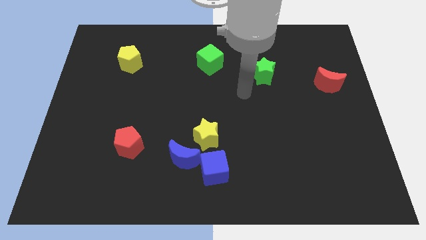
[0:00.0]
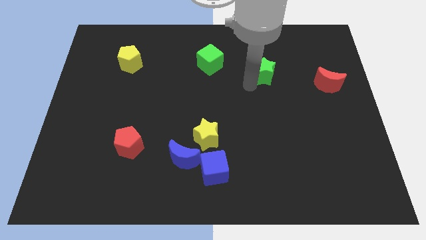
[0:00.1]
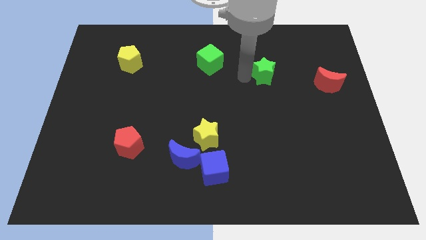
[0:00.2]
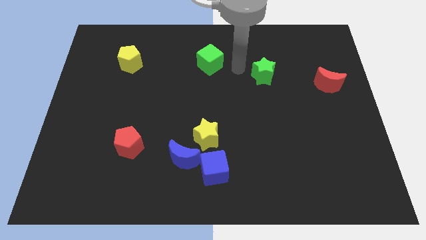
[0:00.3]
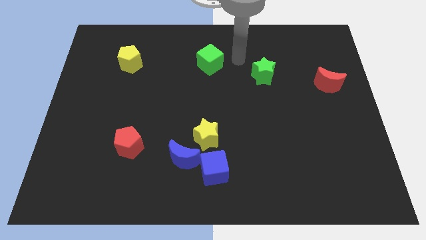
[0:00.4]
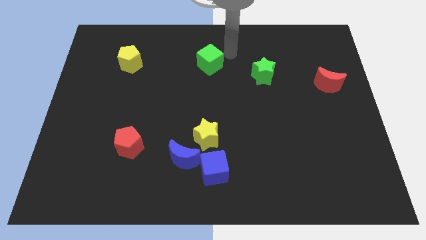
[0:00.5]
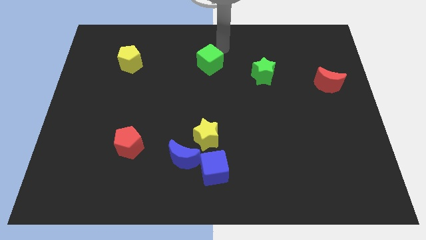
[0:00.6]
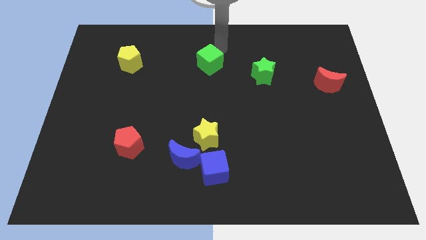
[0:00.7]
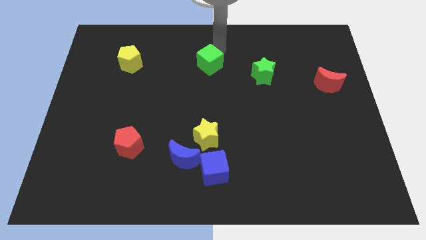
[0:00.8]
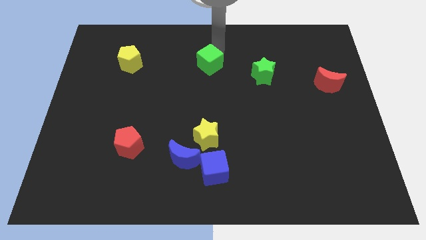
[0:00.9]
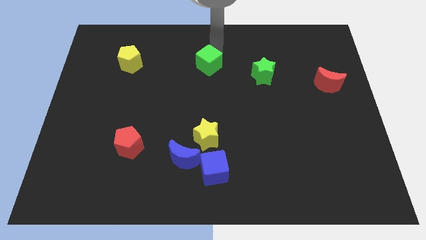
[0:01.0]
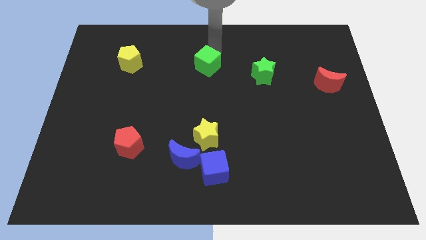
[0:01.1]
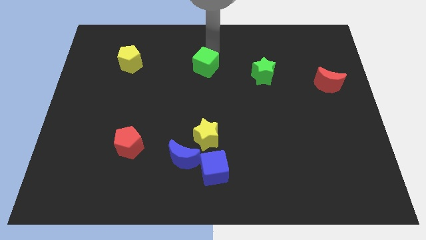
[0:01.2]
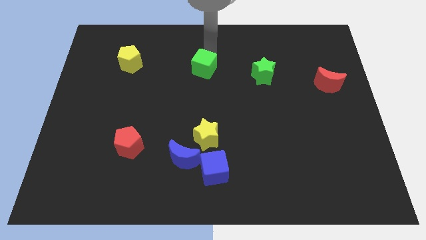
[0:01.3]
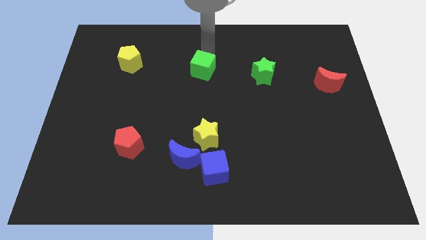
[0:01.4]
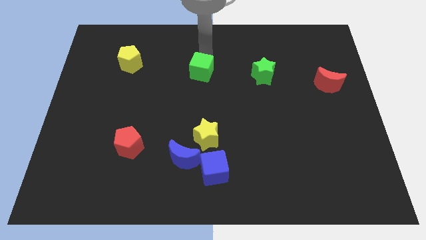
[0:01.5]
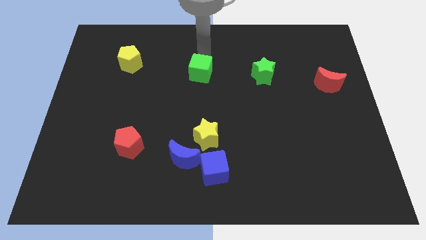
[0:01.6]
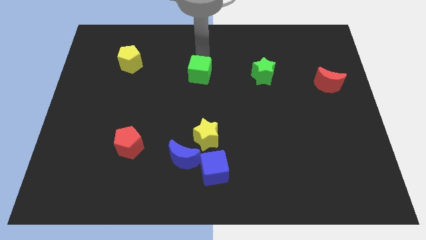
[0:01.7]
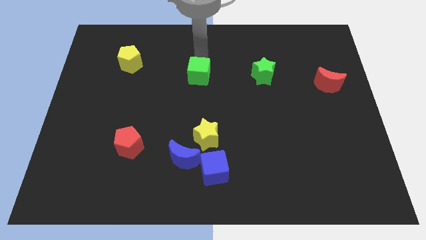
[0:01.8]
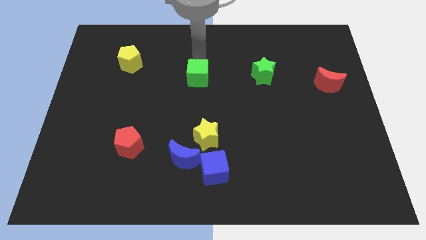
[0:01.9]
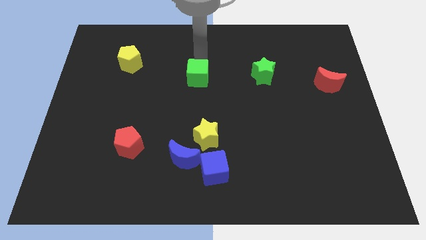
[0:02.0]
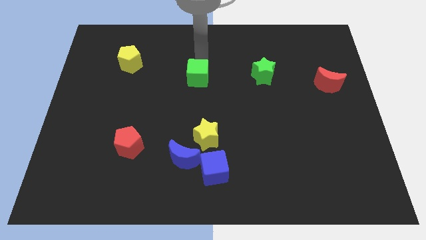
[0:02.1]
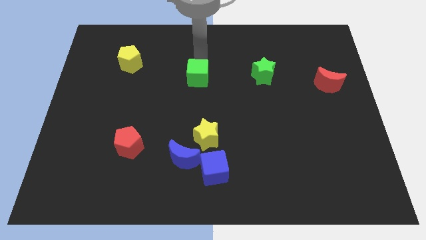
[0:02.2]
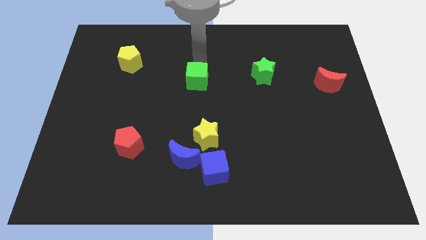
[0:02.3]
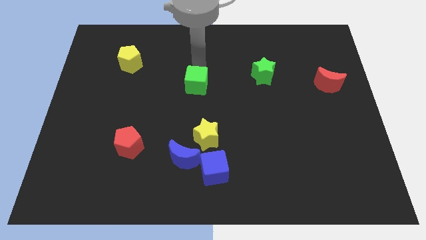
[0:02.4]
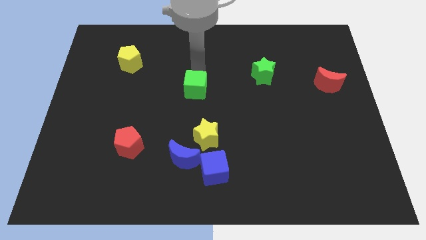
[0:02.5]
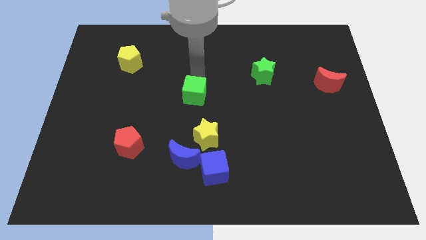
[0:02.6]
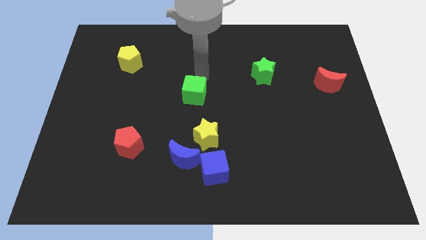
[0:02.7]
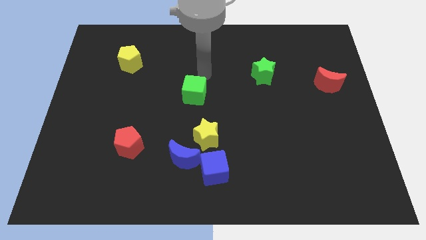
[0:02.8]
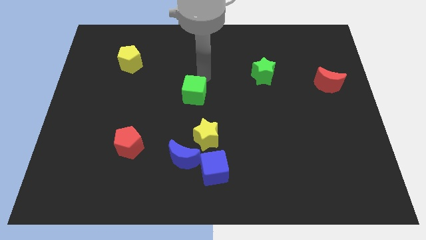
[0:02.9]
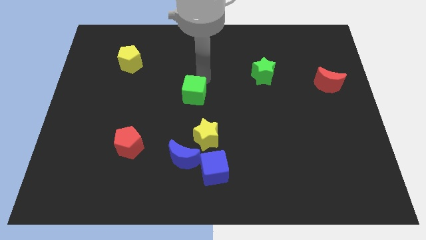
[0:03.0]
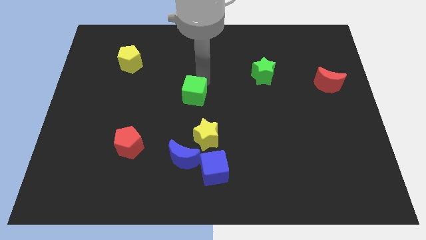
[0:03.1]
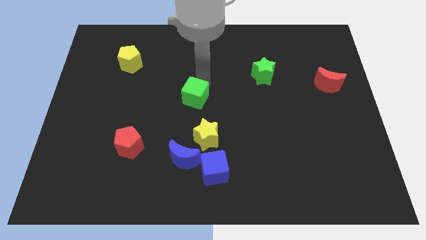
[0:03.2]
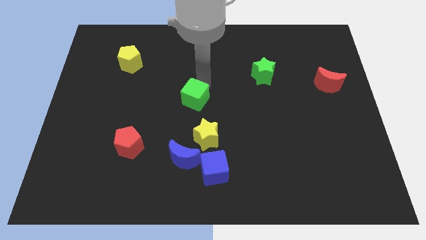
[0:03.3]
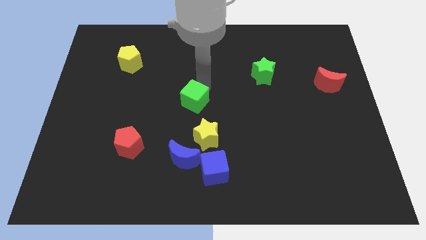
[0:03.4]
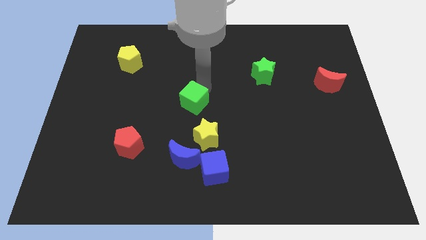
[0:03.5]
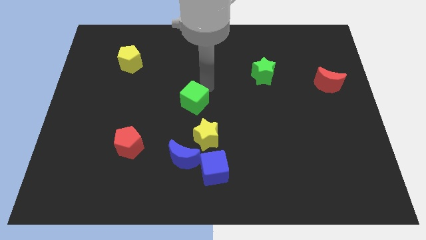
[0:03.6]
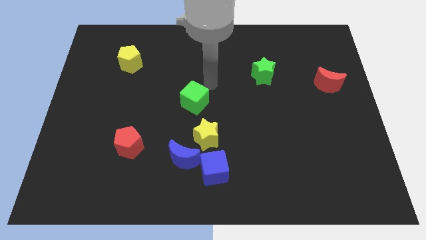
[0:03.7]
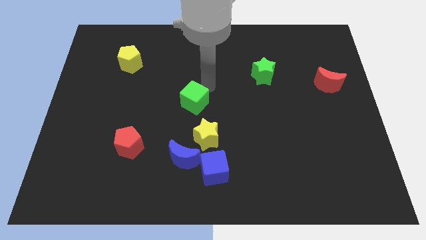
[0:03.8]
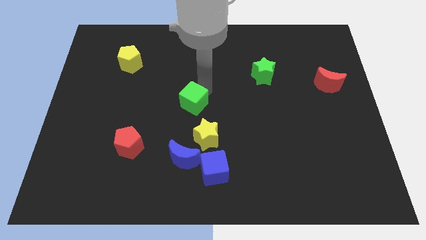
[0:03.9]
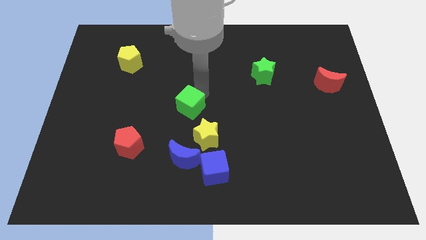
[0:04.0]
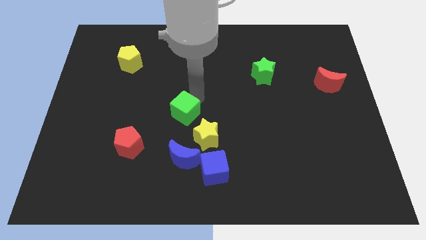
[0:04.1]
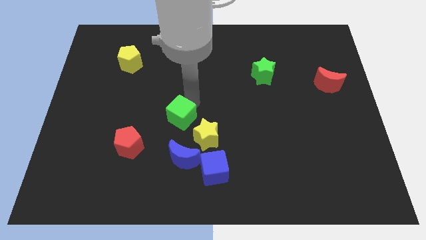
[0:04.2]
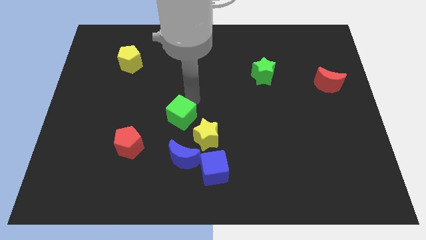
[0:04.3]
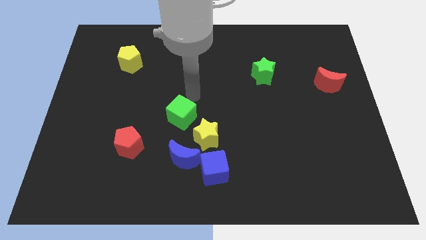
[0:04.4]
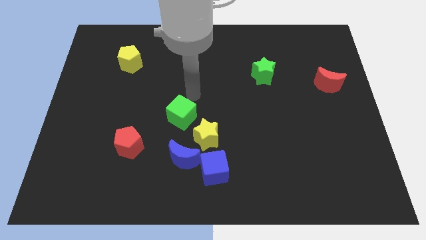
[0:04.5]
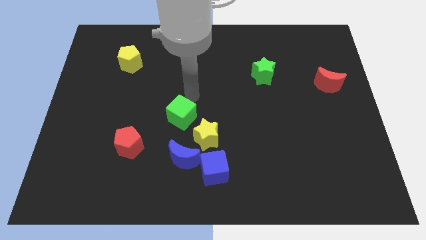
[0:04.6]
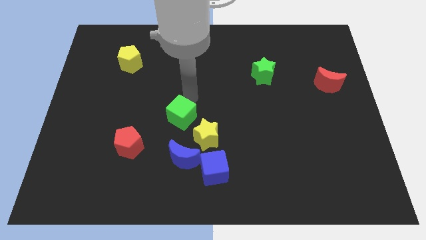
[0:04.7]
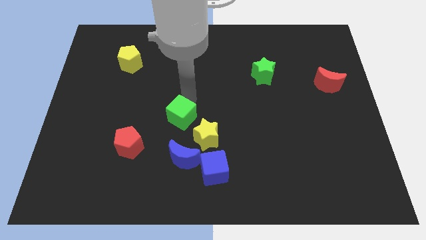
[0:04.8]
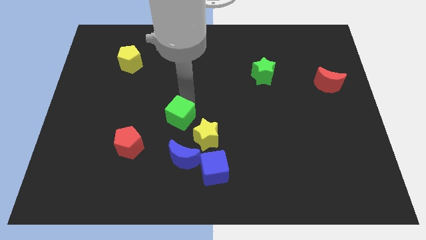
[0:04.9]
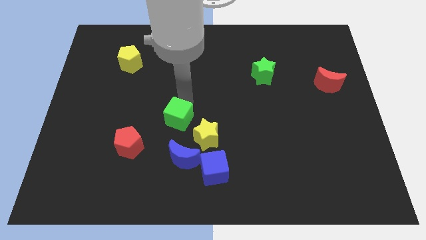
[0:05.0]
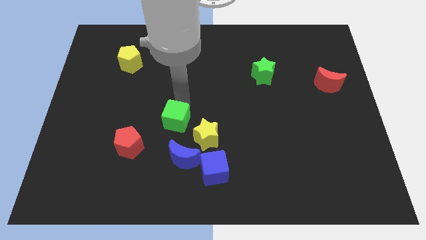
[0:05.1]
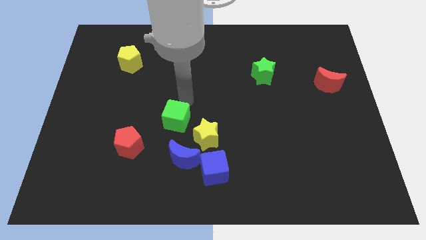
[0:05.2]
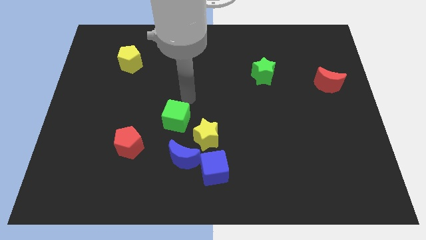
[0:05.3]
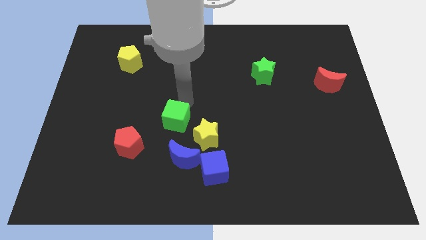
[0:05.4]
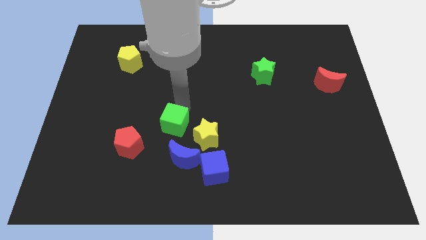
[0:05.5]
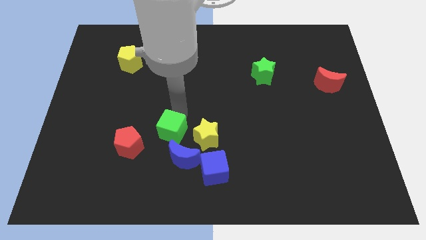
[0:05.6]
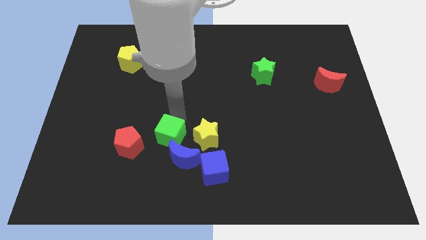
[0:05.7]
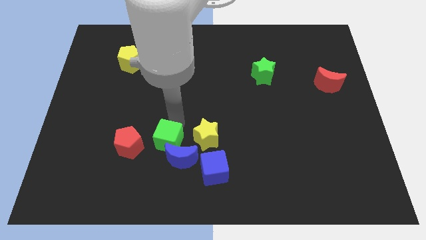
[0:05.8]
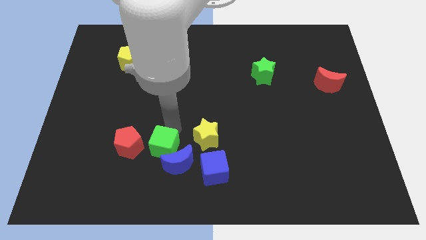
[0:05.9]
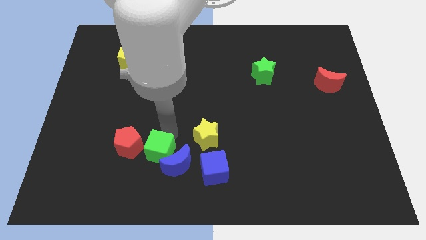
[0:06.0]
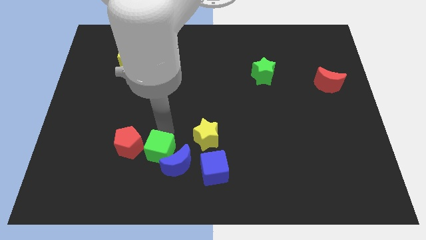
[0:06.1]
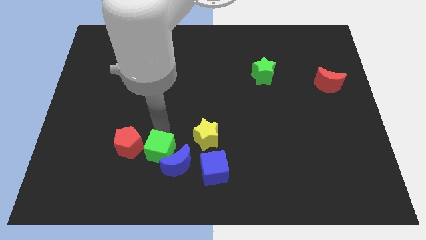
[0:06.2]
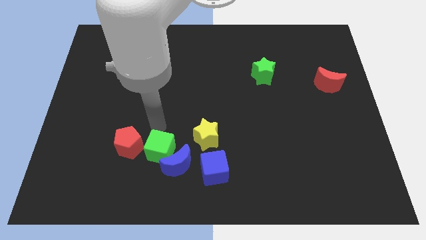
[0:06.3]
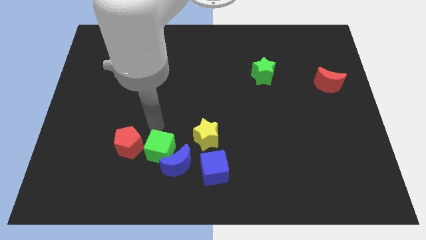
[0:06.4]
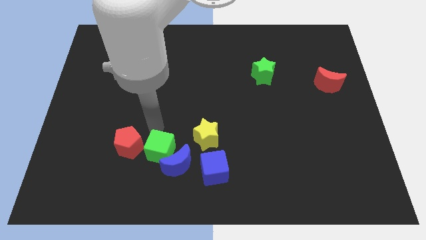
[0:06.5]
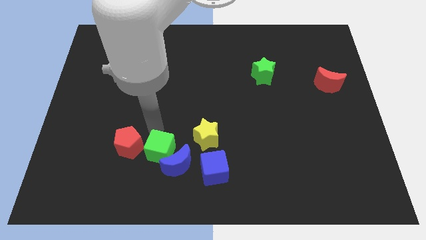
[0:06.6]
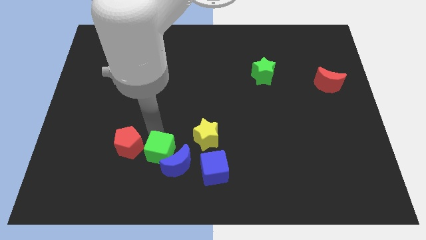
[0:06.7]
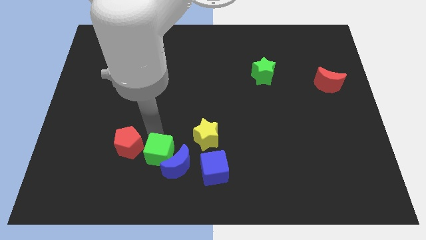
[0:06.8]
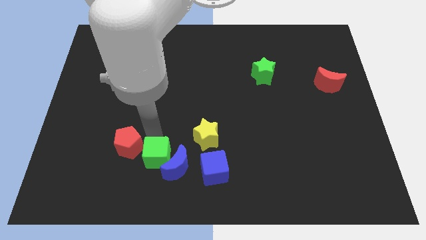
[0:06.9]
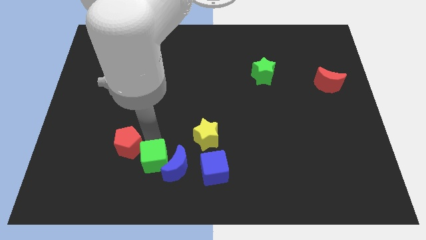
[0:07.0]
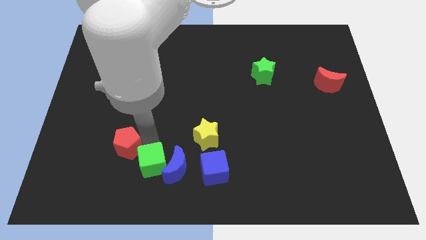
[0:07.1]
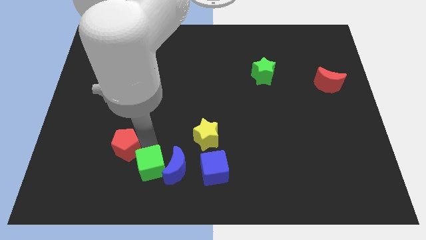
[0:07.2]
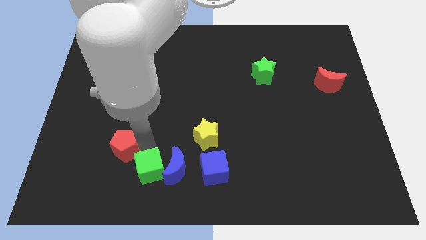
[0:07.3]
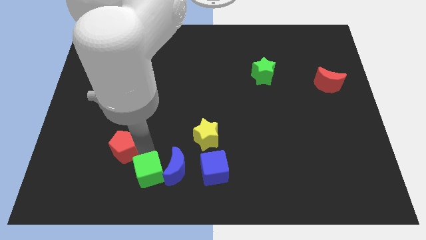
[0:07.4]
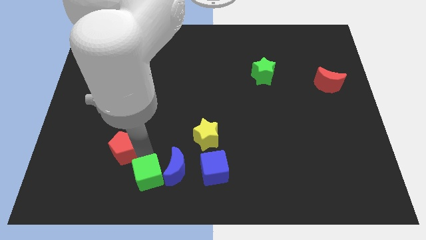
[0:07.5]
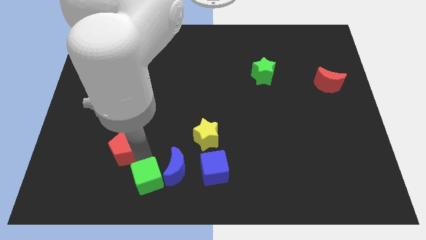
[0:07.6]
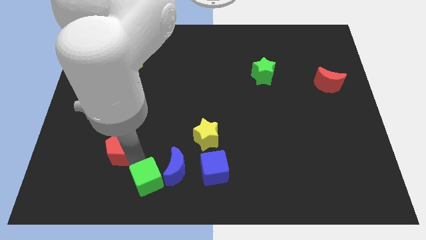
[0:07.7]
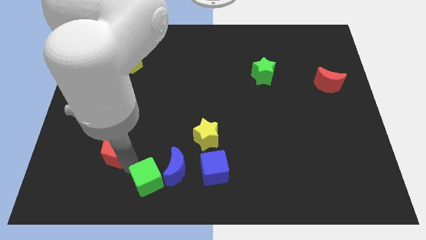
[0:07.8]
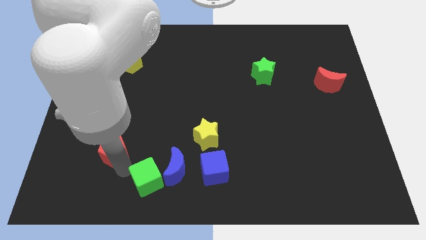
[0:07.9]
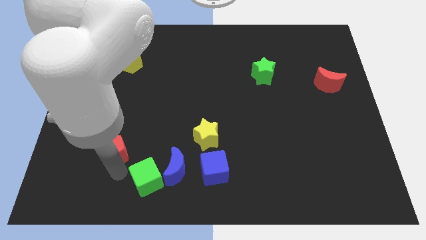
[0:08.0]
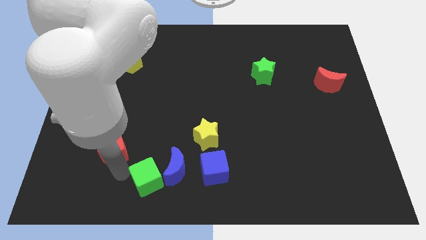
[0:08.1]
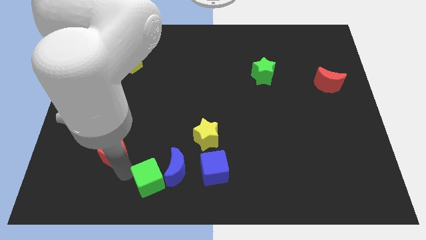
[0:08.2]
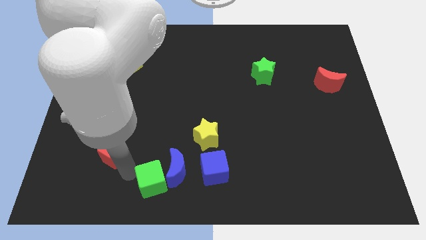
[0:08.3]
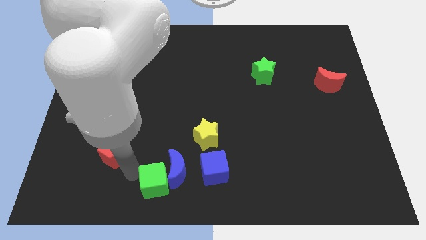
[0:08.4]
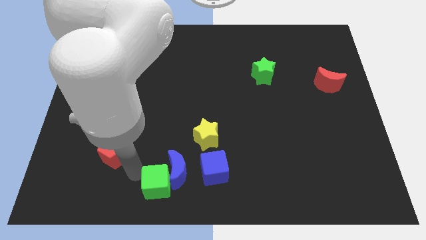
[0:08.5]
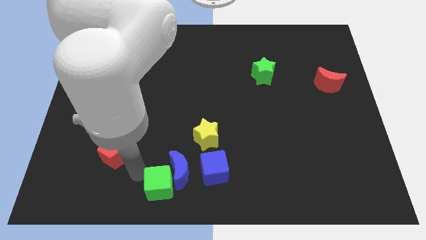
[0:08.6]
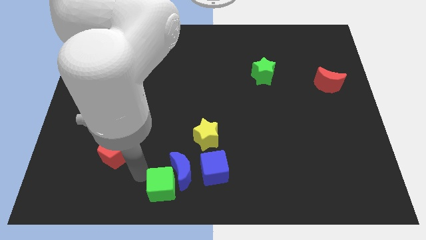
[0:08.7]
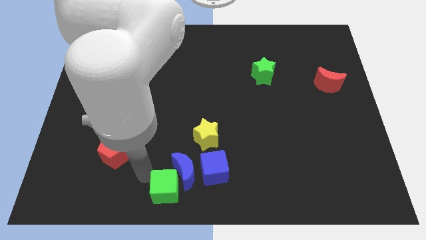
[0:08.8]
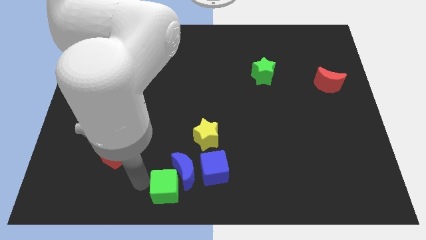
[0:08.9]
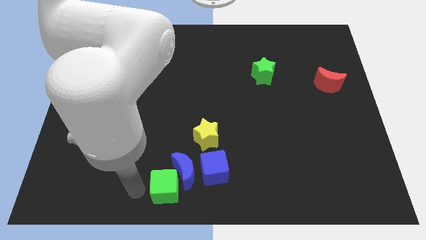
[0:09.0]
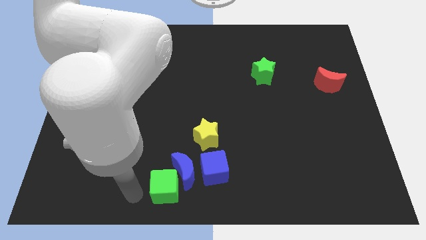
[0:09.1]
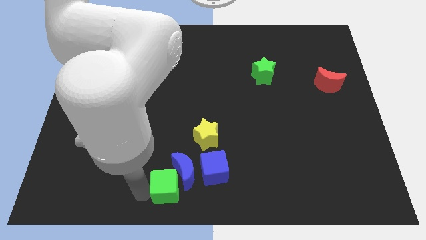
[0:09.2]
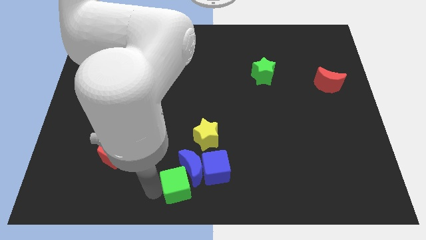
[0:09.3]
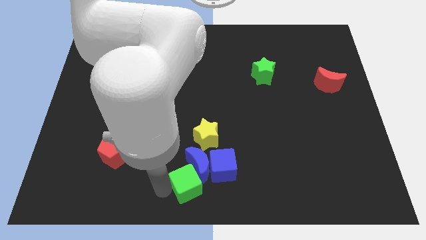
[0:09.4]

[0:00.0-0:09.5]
put the green cube to the bottom of the yellow star
